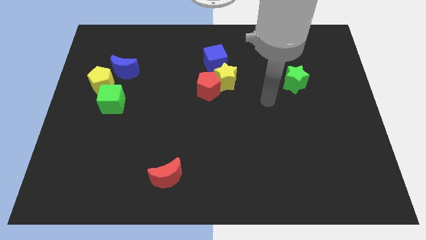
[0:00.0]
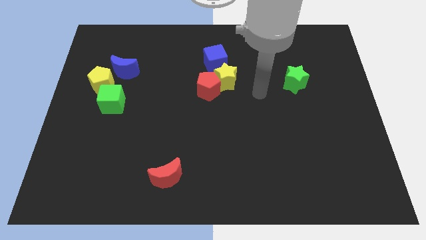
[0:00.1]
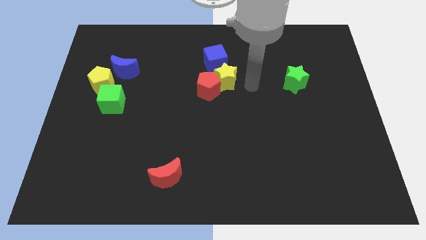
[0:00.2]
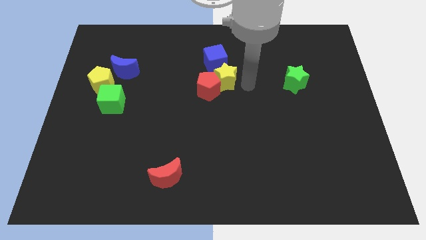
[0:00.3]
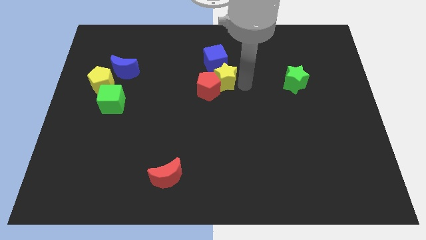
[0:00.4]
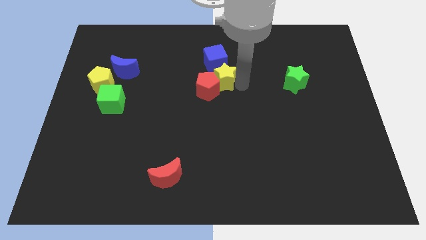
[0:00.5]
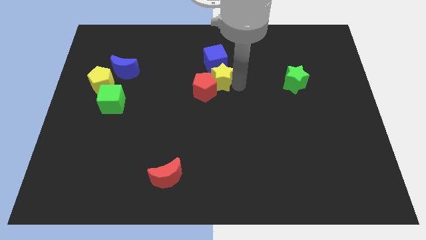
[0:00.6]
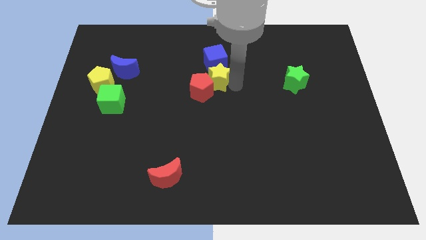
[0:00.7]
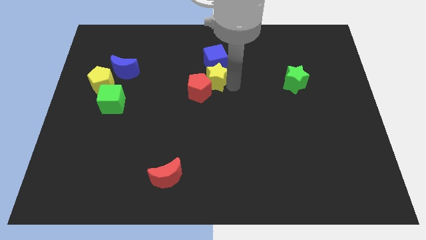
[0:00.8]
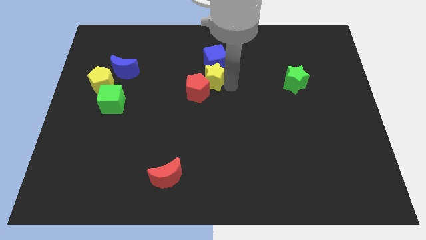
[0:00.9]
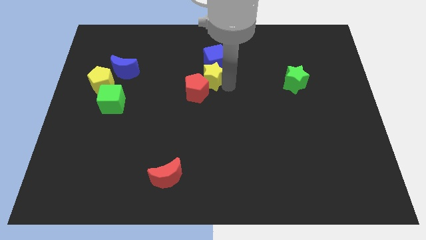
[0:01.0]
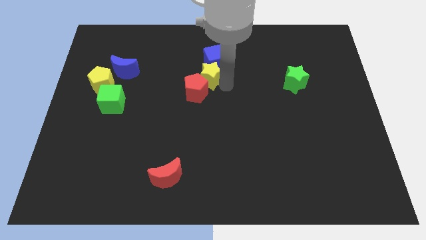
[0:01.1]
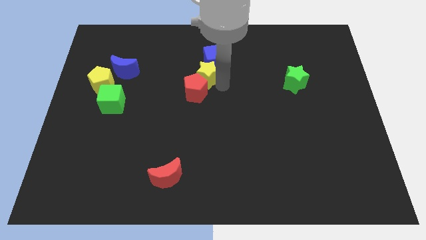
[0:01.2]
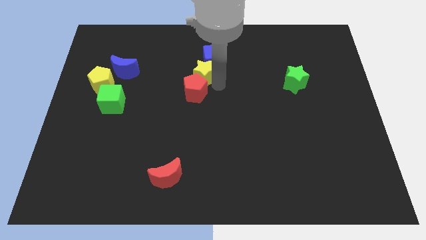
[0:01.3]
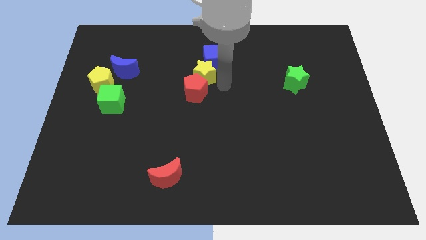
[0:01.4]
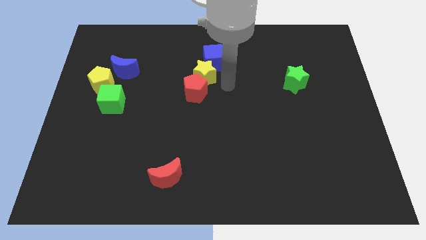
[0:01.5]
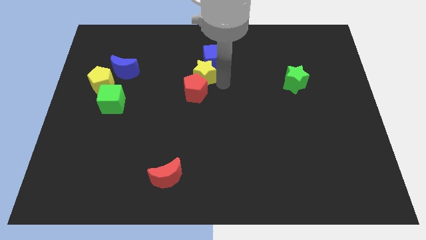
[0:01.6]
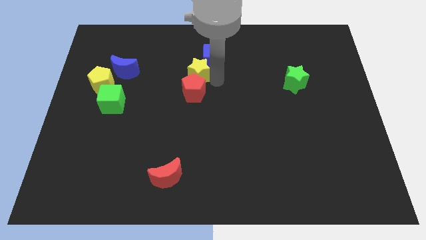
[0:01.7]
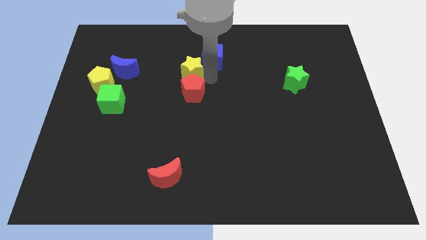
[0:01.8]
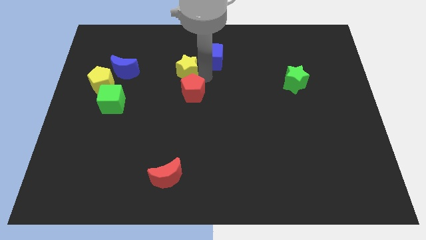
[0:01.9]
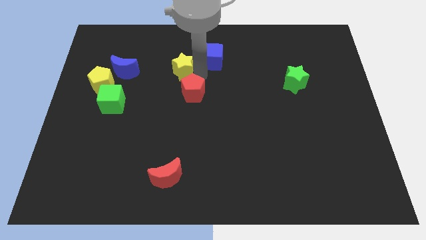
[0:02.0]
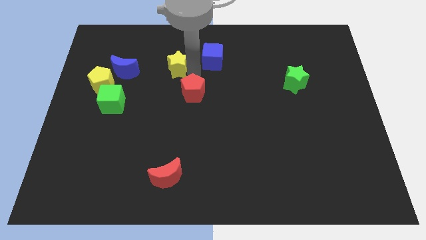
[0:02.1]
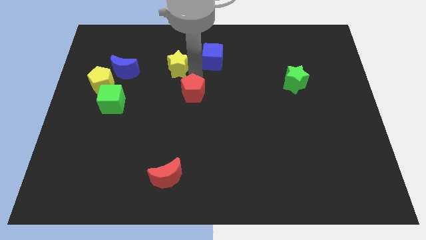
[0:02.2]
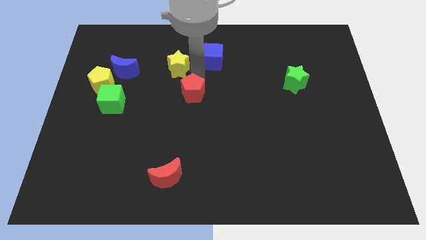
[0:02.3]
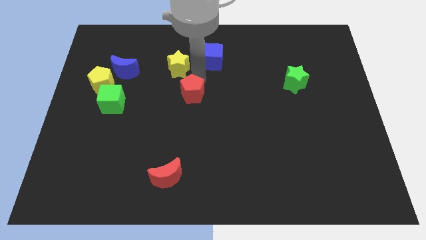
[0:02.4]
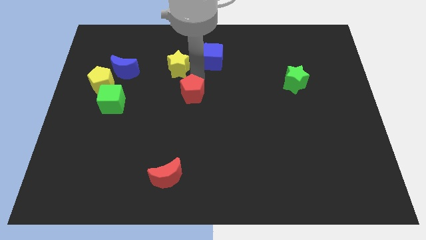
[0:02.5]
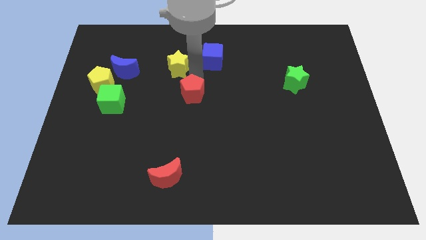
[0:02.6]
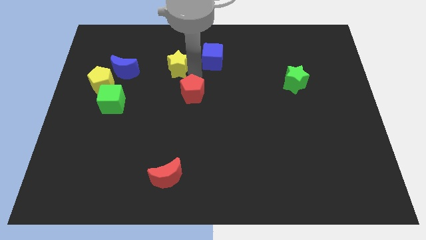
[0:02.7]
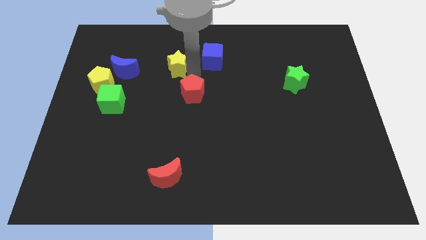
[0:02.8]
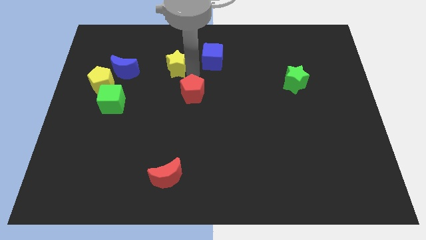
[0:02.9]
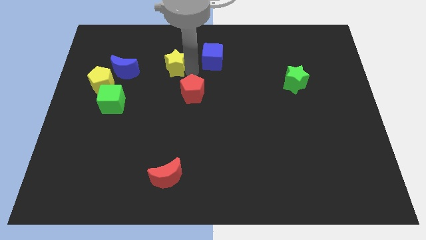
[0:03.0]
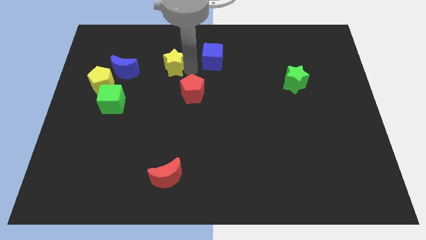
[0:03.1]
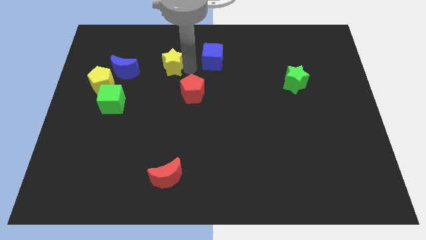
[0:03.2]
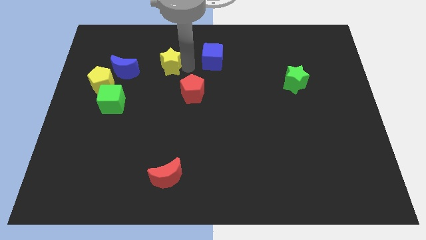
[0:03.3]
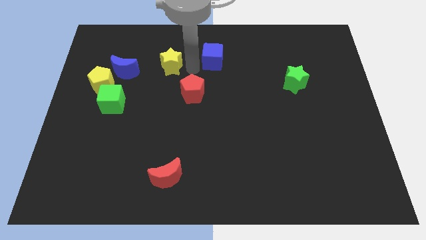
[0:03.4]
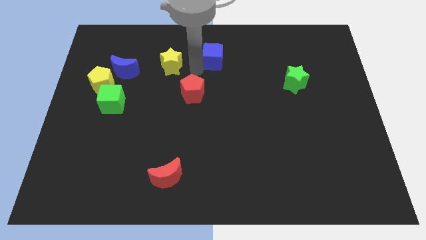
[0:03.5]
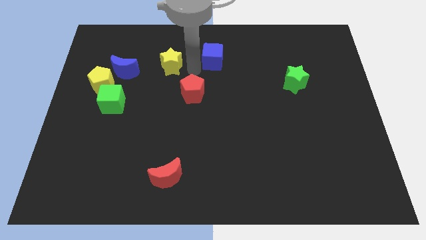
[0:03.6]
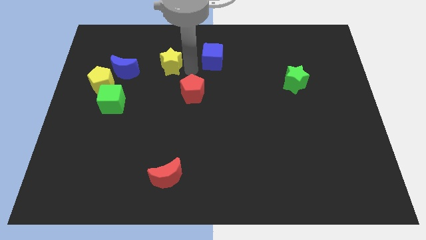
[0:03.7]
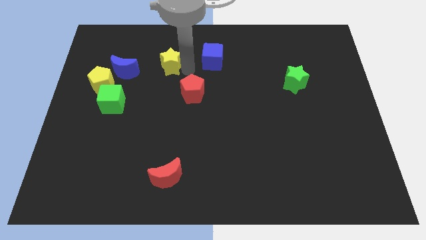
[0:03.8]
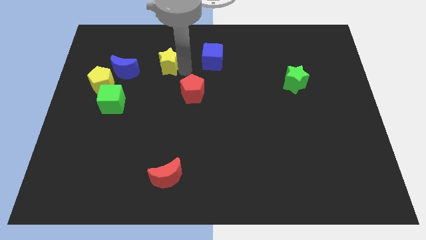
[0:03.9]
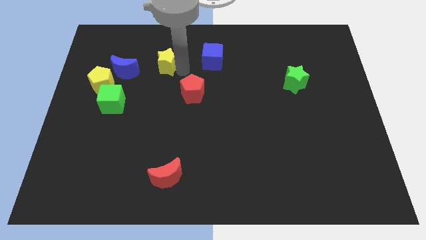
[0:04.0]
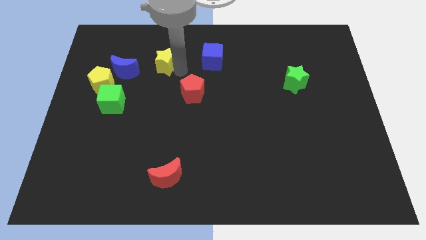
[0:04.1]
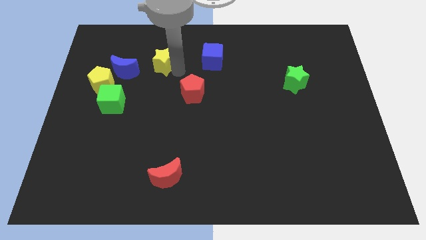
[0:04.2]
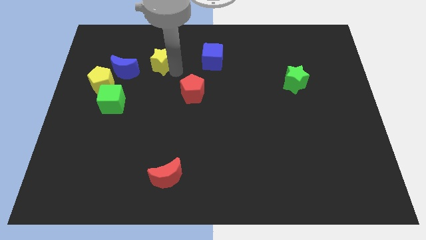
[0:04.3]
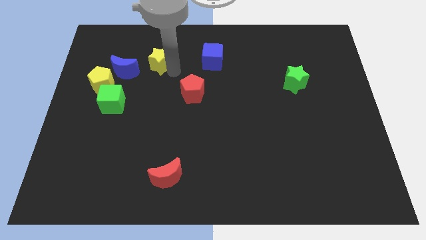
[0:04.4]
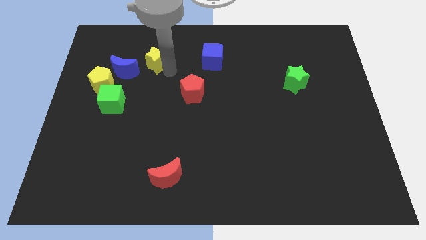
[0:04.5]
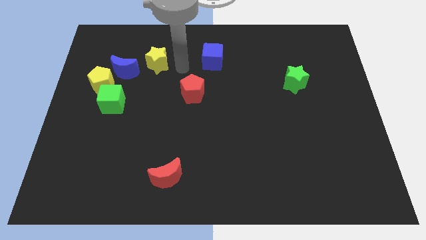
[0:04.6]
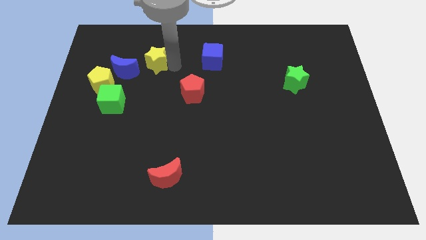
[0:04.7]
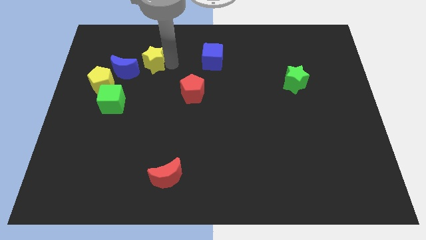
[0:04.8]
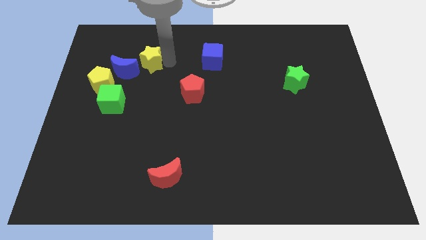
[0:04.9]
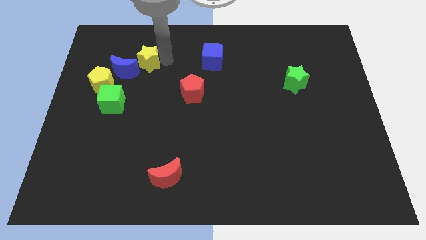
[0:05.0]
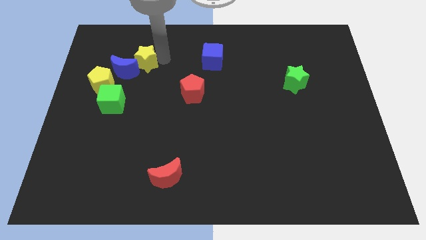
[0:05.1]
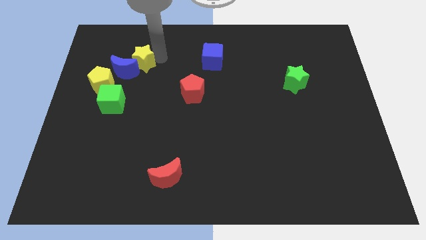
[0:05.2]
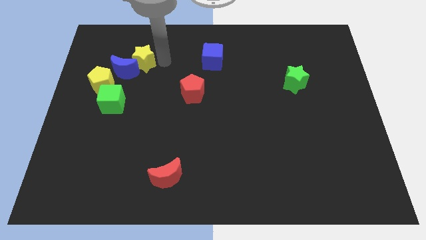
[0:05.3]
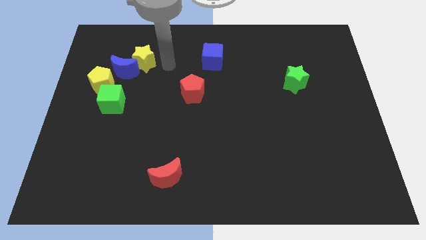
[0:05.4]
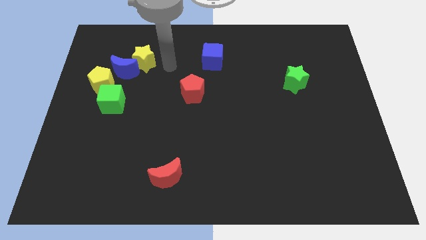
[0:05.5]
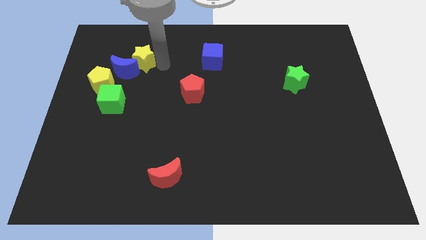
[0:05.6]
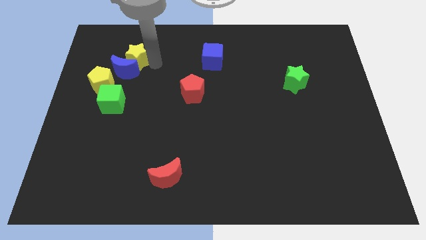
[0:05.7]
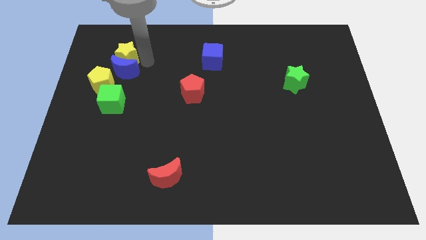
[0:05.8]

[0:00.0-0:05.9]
put the yellow star to the top side of the yellow pentagon
